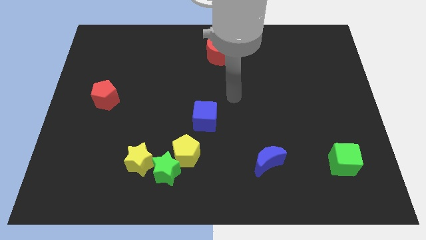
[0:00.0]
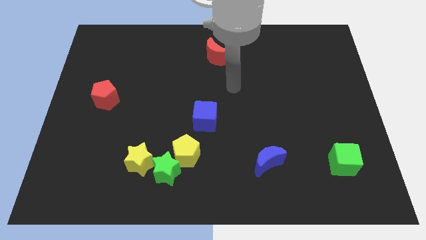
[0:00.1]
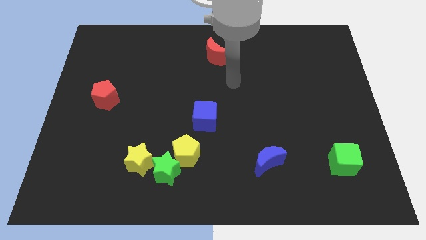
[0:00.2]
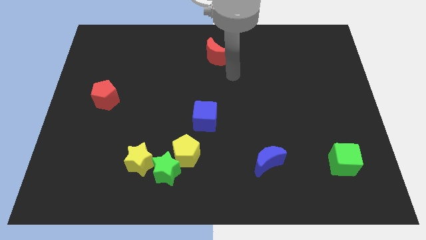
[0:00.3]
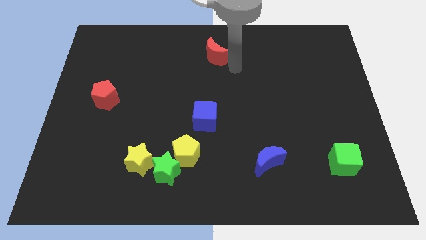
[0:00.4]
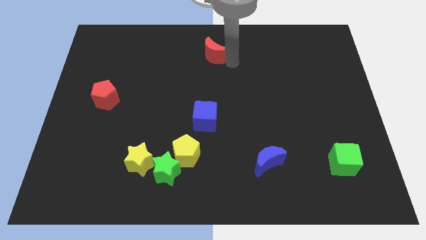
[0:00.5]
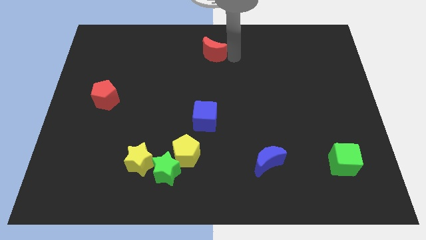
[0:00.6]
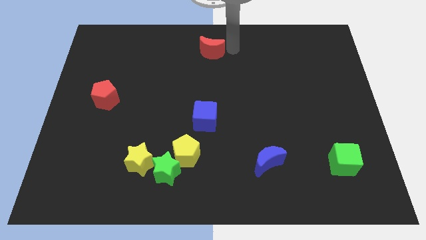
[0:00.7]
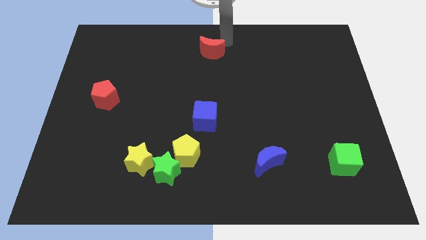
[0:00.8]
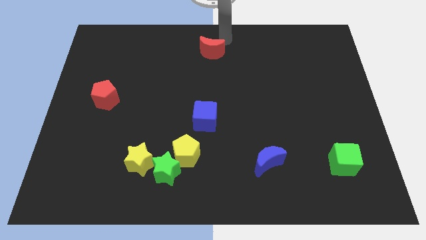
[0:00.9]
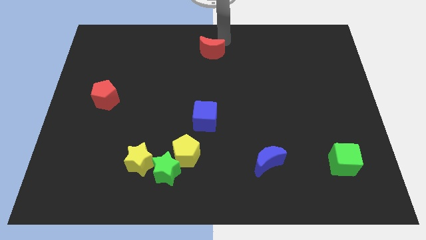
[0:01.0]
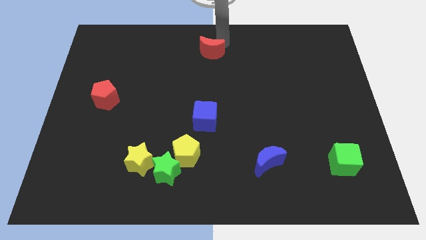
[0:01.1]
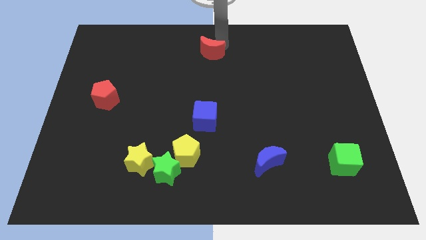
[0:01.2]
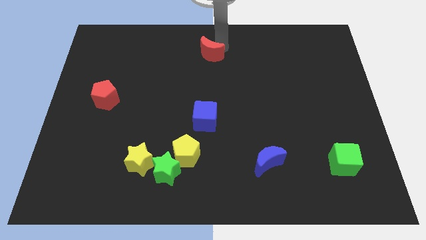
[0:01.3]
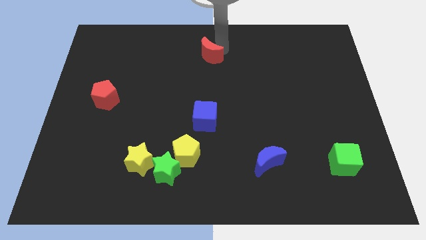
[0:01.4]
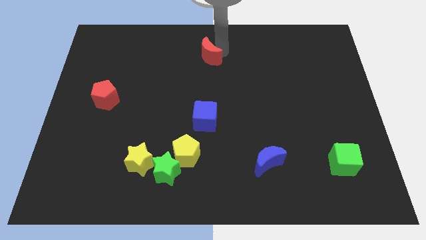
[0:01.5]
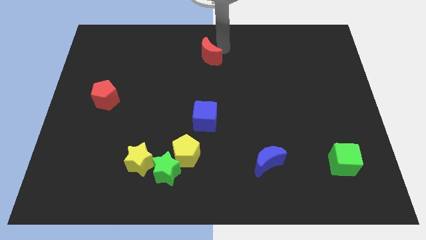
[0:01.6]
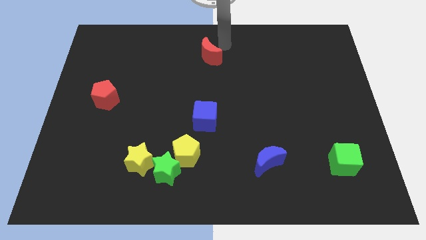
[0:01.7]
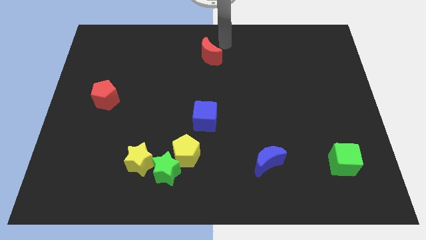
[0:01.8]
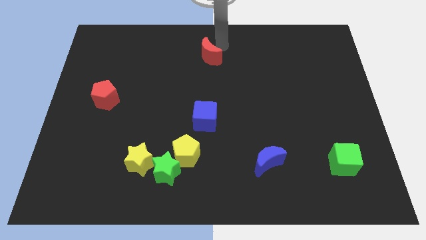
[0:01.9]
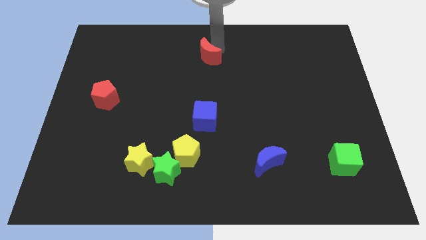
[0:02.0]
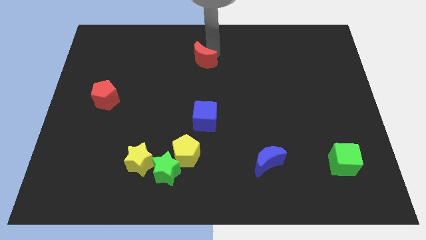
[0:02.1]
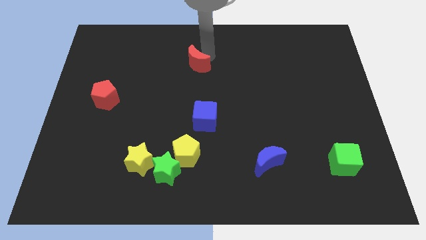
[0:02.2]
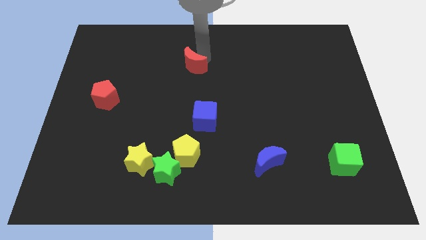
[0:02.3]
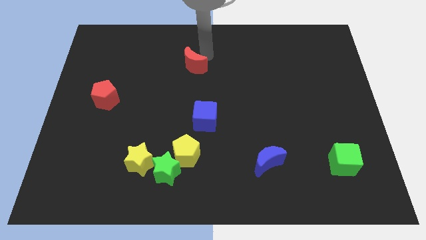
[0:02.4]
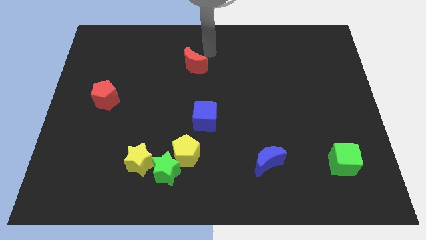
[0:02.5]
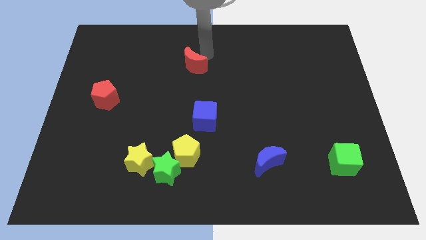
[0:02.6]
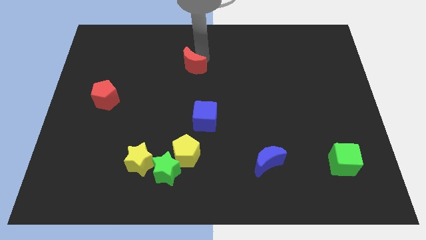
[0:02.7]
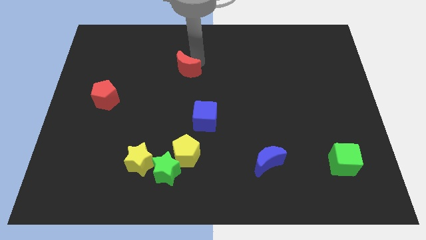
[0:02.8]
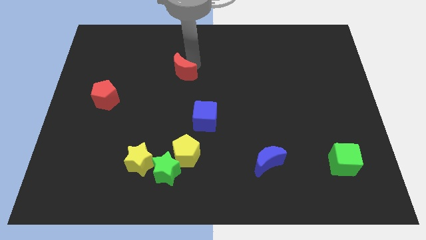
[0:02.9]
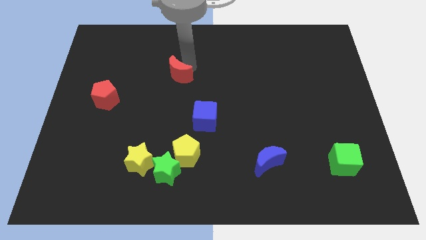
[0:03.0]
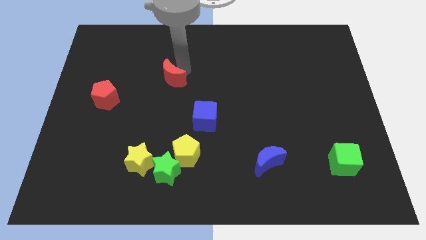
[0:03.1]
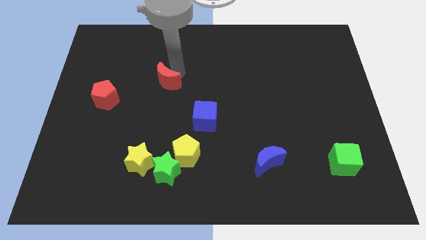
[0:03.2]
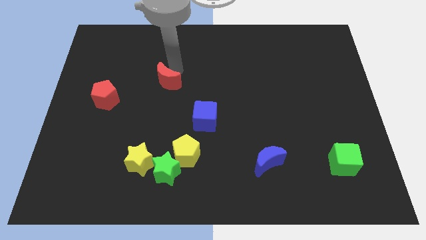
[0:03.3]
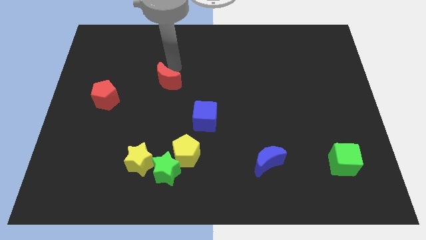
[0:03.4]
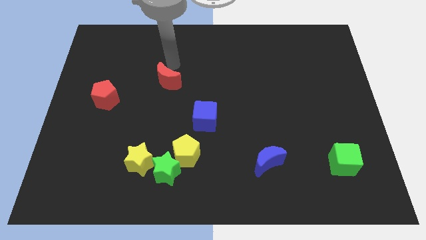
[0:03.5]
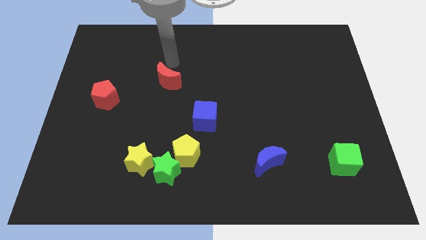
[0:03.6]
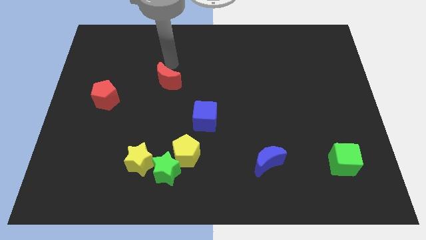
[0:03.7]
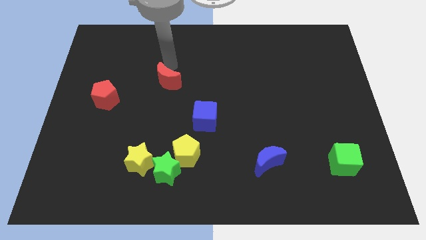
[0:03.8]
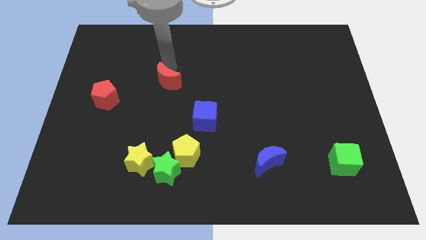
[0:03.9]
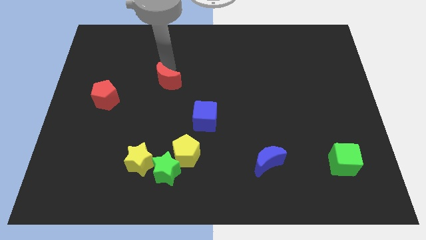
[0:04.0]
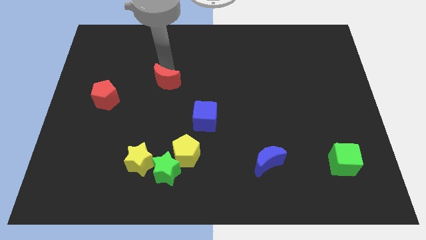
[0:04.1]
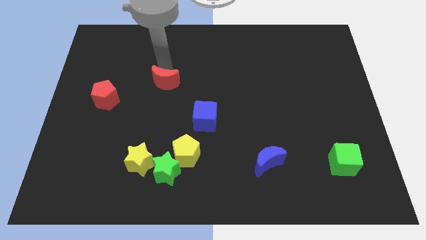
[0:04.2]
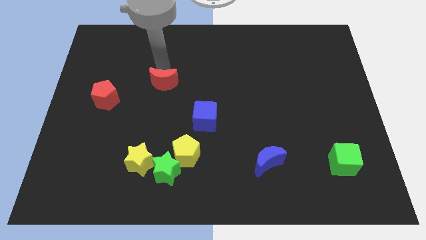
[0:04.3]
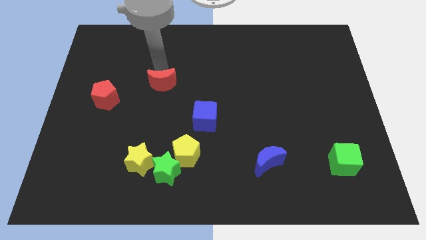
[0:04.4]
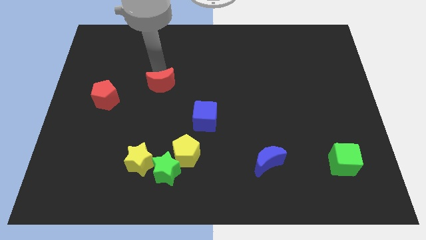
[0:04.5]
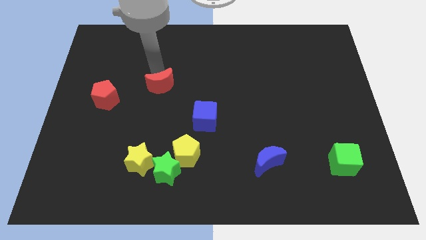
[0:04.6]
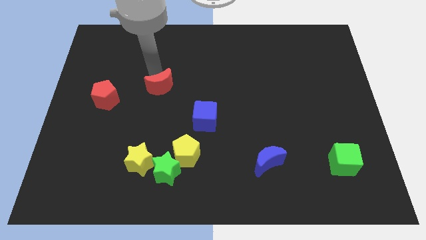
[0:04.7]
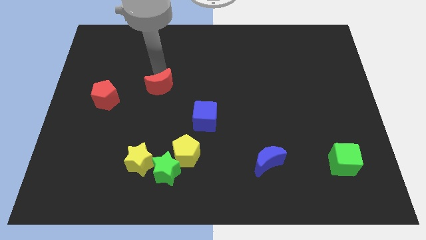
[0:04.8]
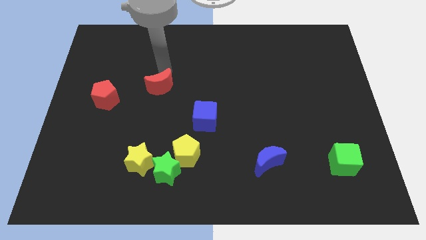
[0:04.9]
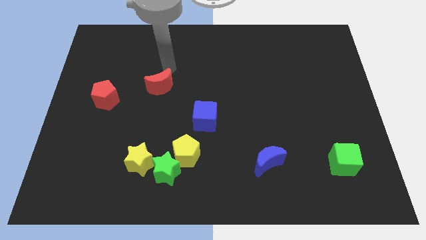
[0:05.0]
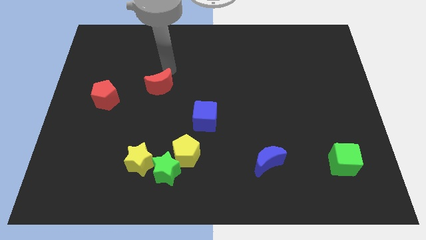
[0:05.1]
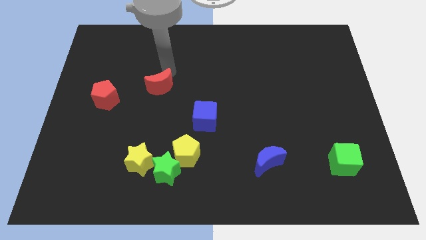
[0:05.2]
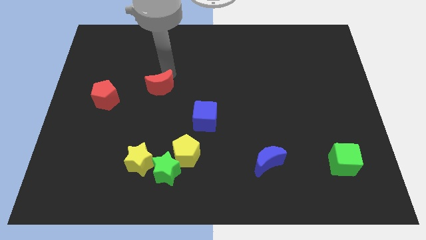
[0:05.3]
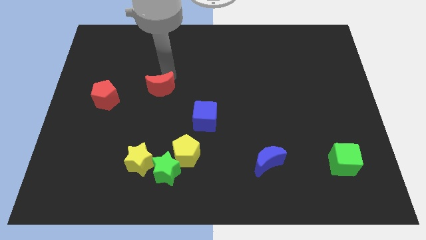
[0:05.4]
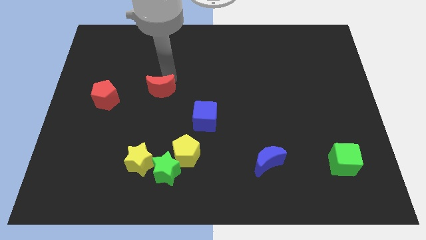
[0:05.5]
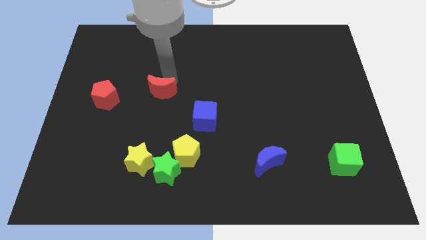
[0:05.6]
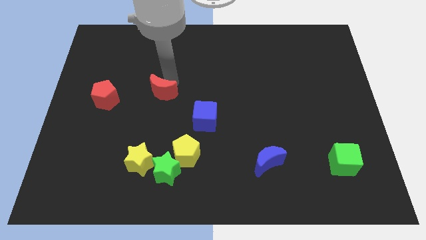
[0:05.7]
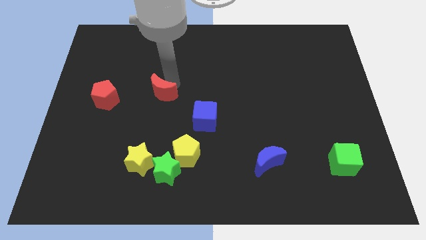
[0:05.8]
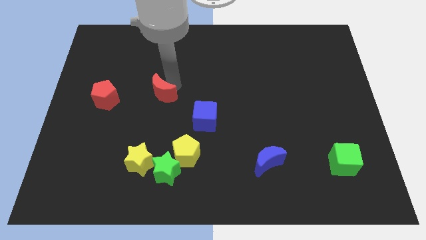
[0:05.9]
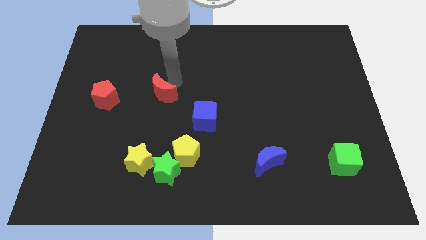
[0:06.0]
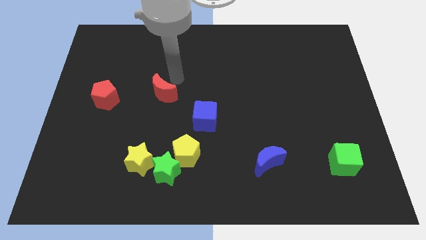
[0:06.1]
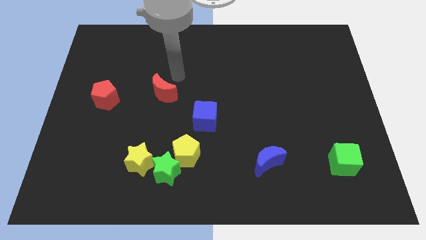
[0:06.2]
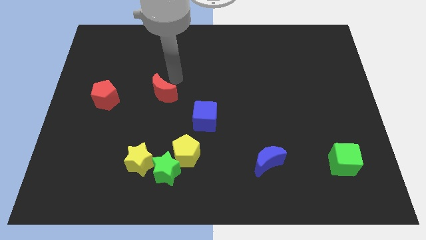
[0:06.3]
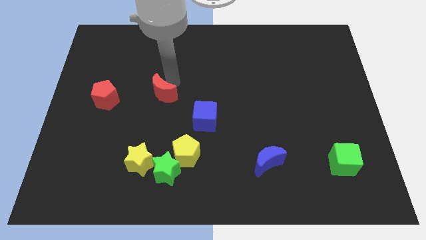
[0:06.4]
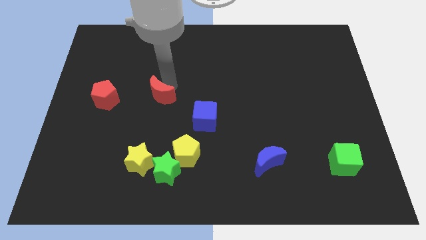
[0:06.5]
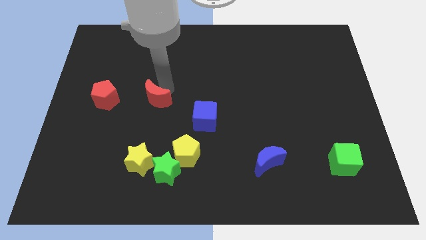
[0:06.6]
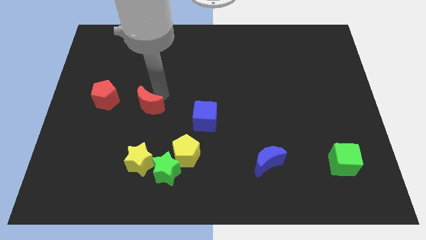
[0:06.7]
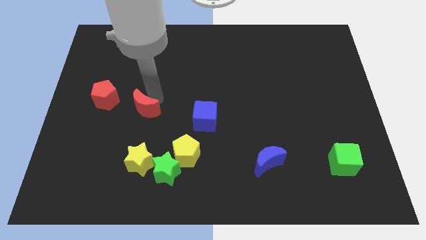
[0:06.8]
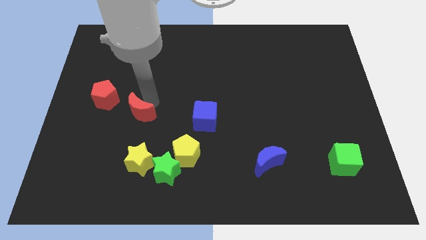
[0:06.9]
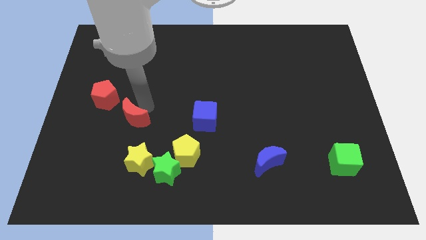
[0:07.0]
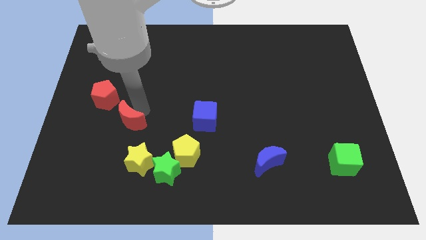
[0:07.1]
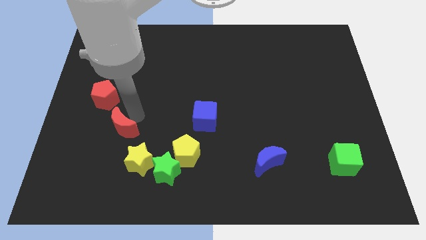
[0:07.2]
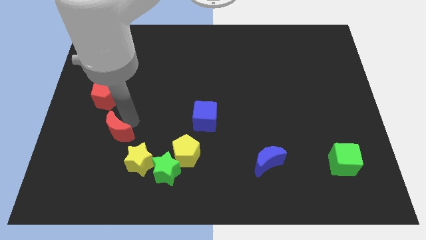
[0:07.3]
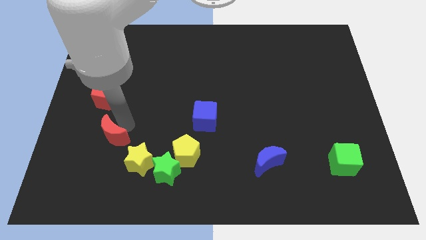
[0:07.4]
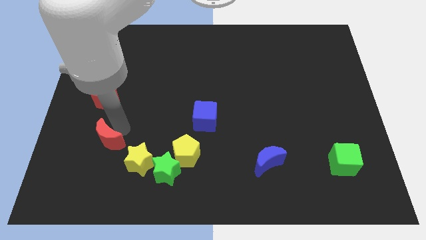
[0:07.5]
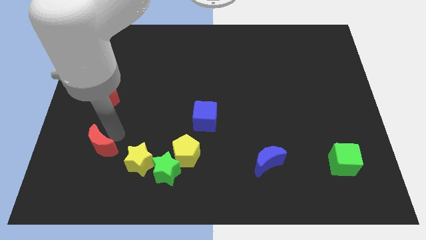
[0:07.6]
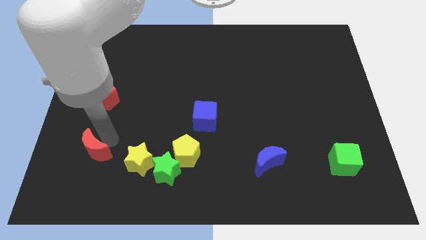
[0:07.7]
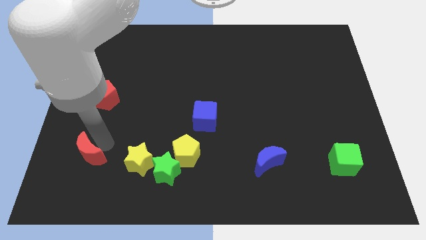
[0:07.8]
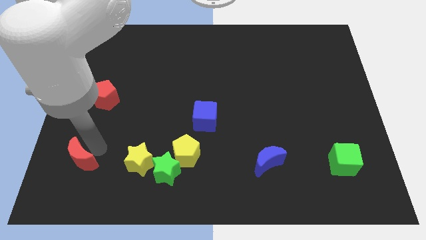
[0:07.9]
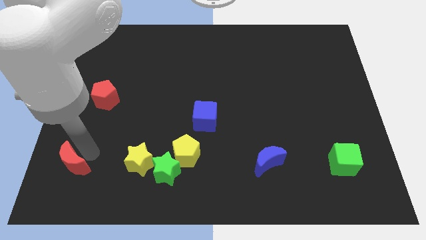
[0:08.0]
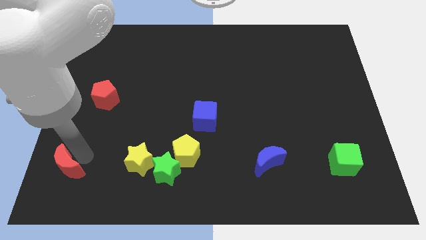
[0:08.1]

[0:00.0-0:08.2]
slide the red moon to the lower left corner
